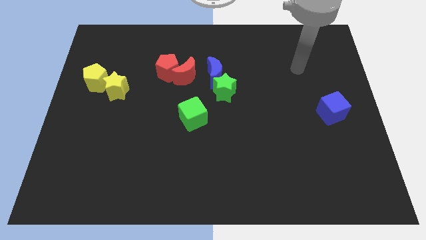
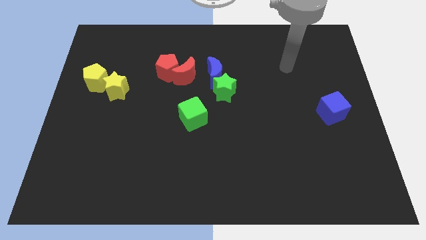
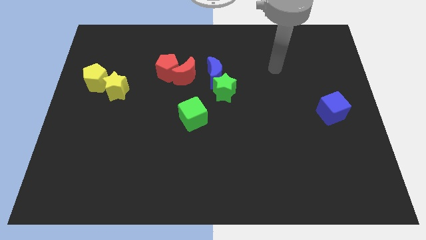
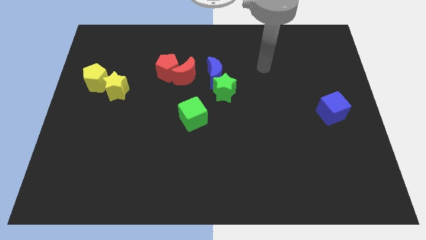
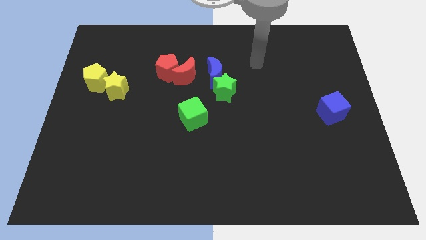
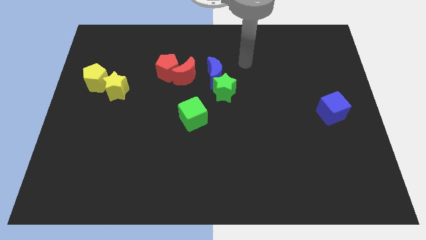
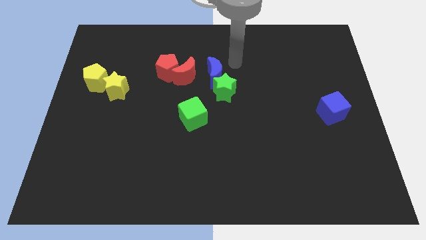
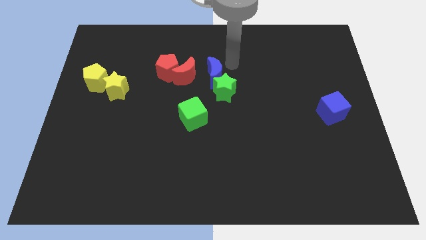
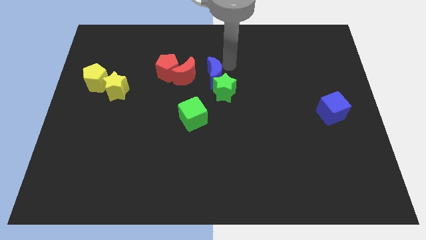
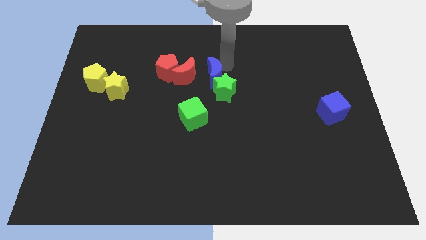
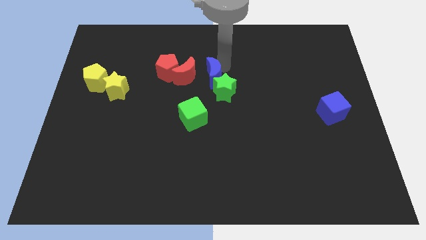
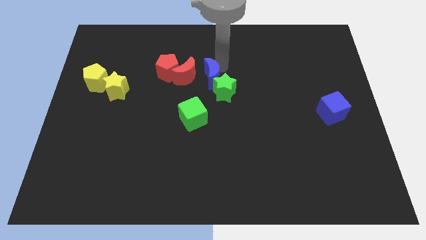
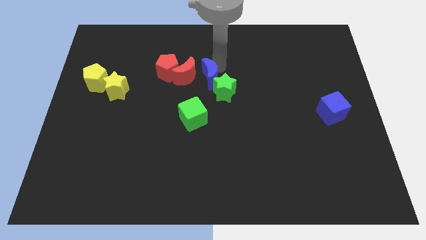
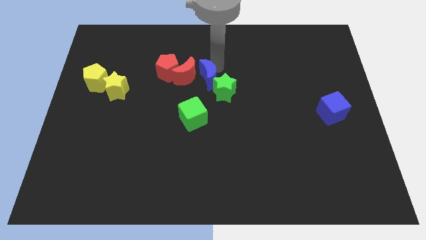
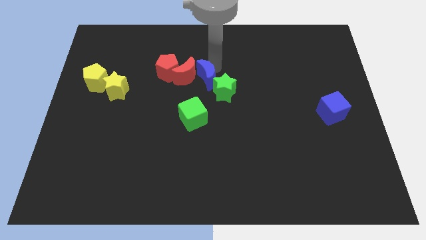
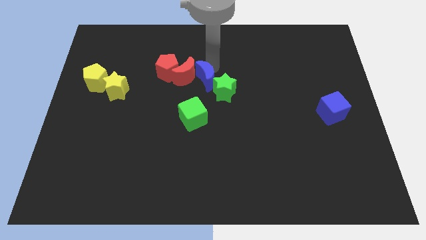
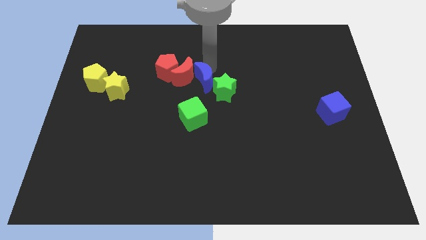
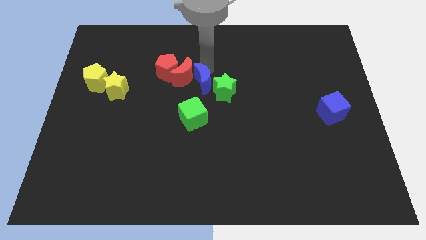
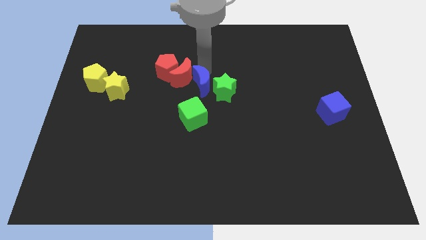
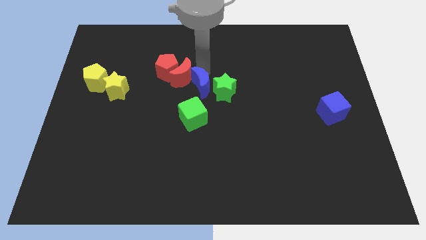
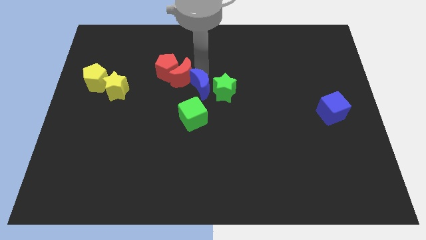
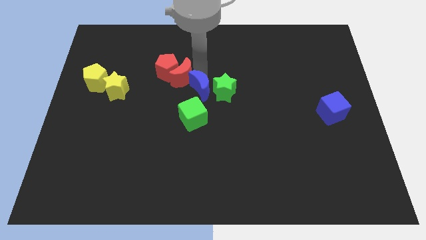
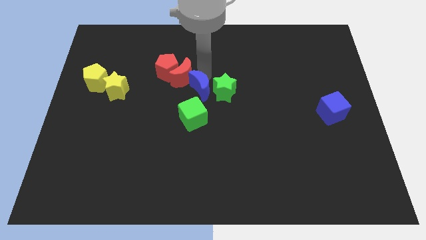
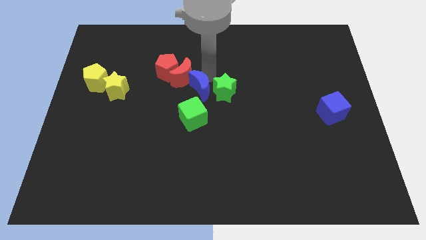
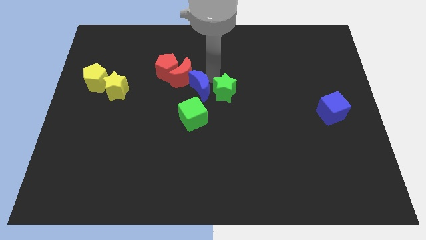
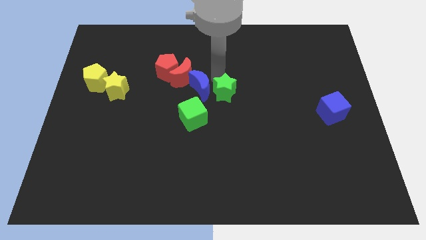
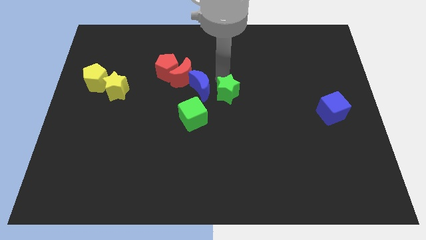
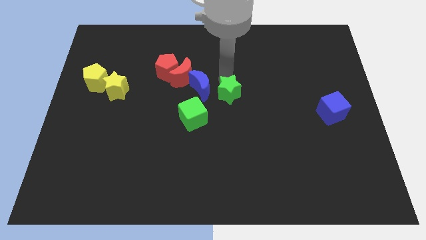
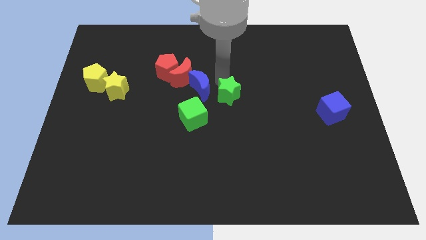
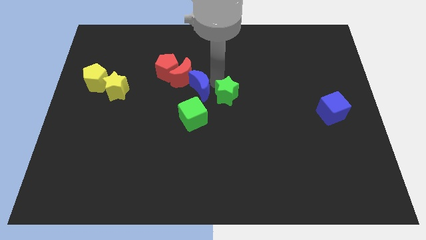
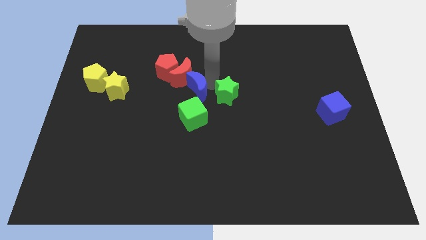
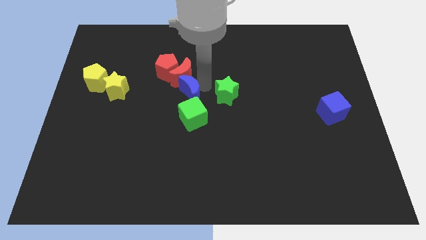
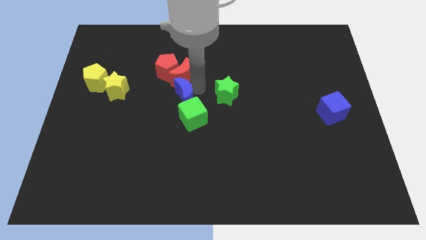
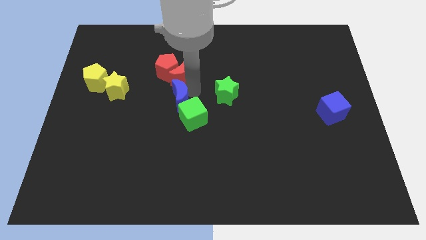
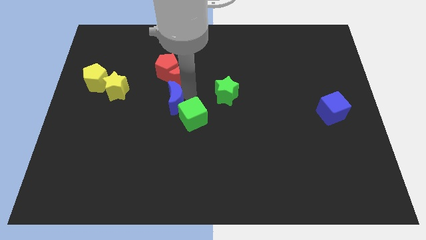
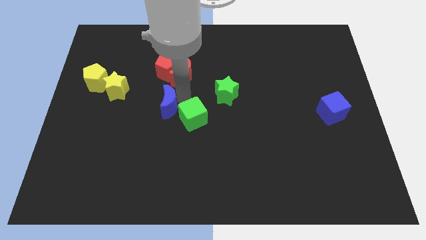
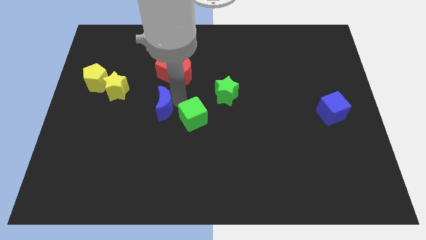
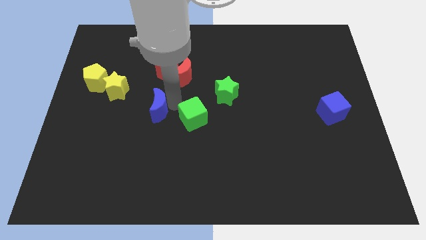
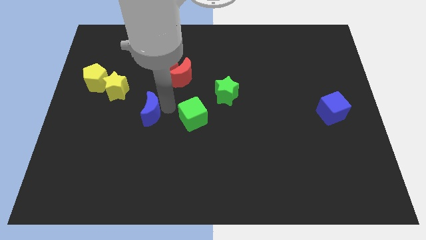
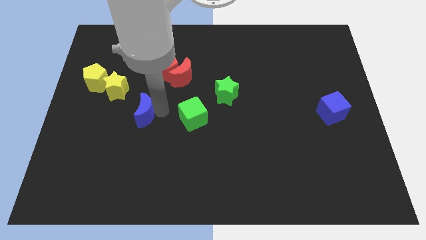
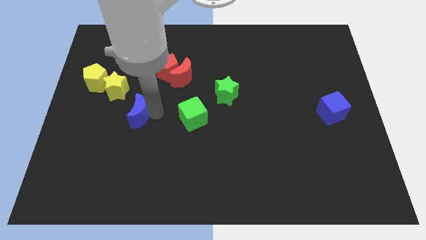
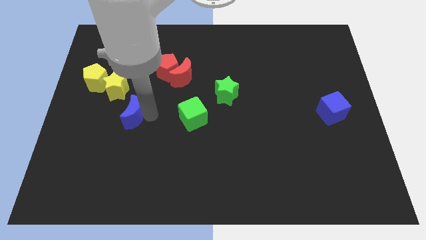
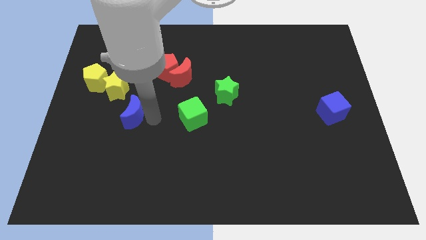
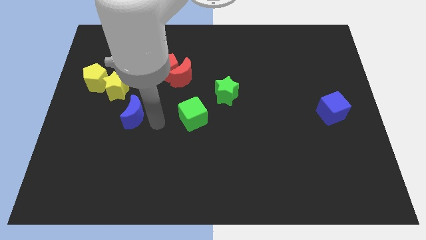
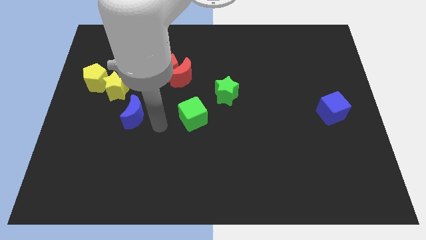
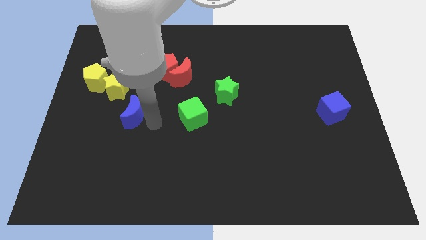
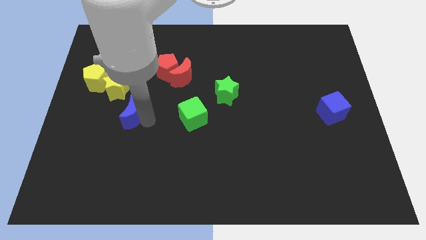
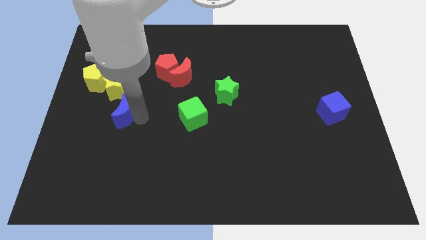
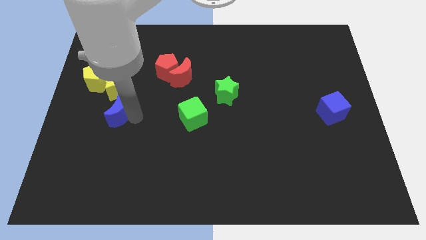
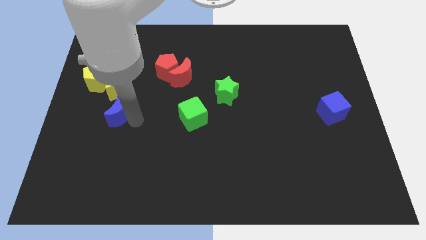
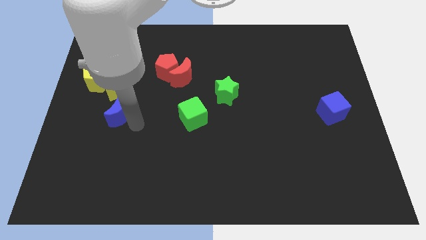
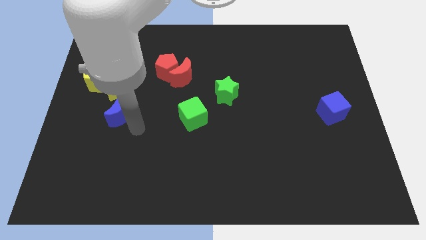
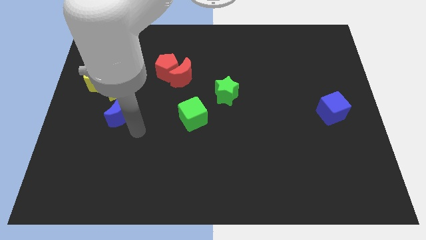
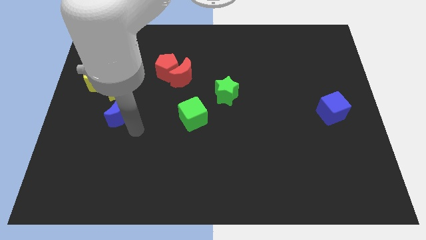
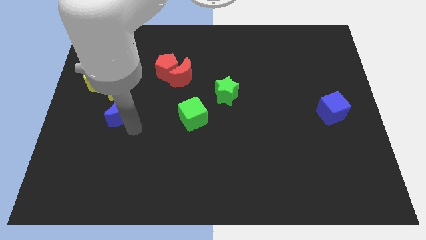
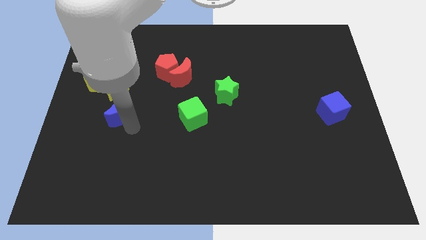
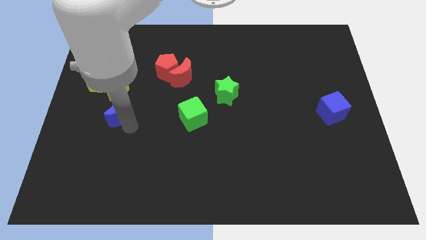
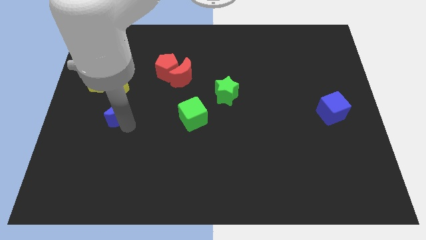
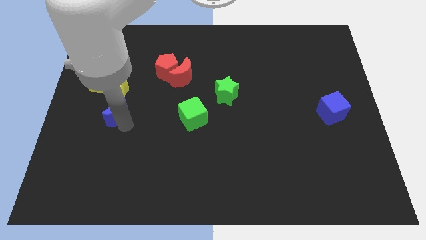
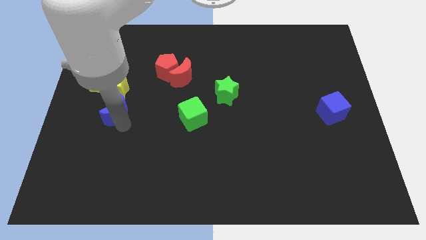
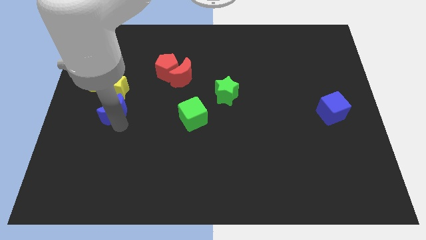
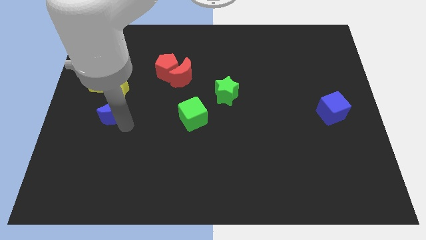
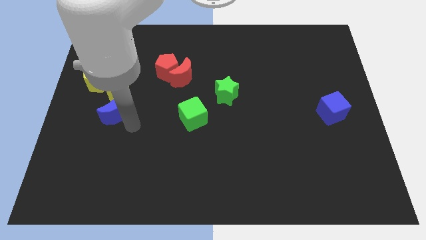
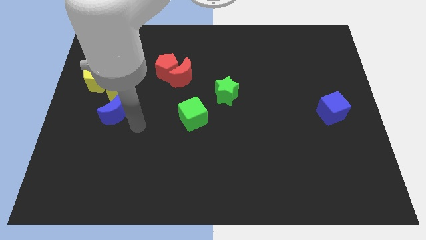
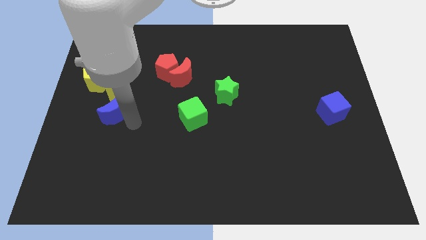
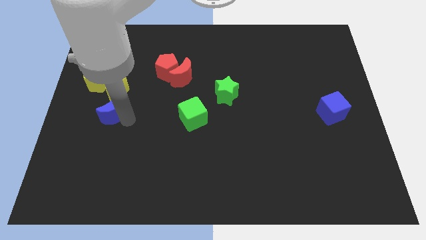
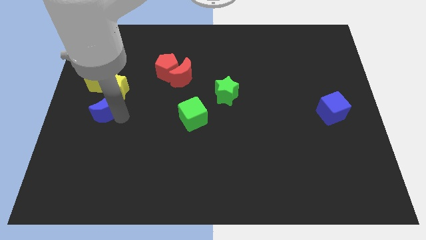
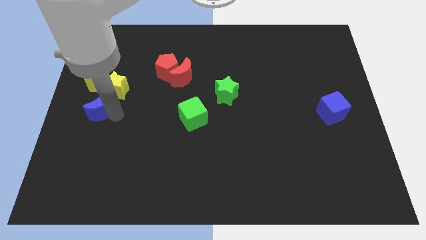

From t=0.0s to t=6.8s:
move the blue moon to the center left
